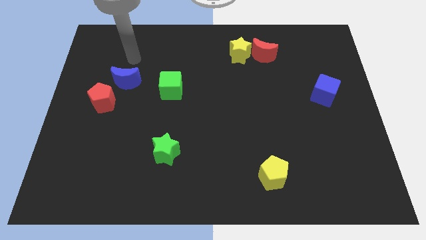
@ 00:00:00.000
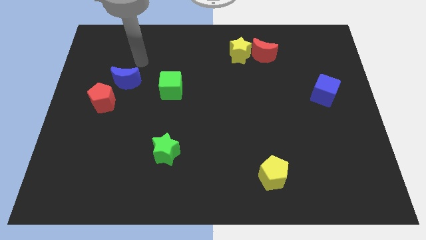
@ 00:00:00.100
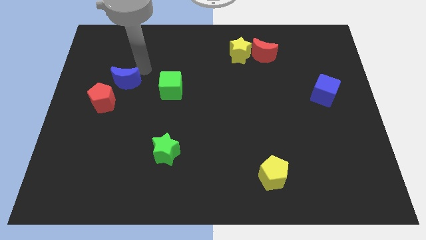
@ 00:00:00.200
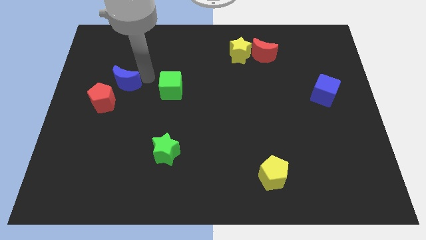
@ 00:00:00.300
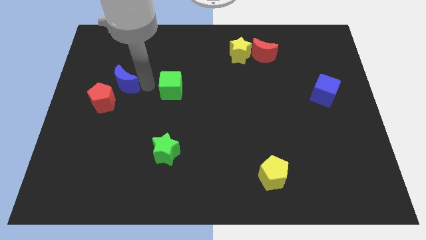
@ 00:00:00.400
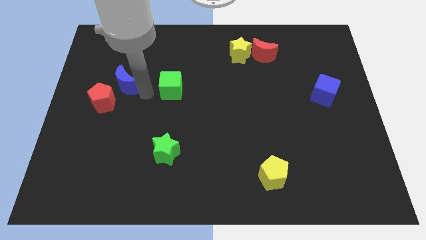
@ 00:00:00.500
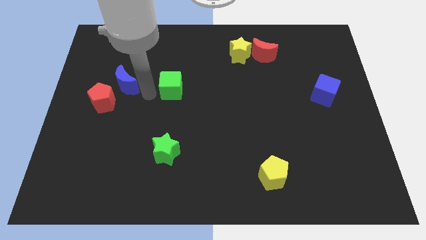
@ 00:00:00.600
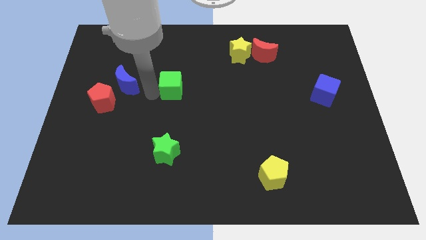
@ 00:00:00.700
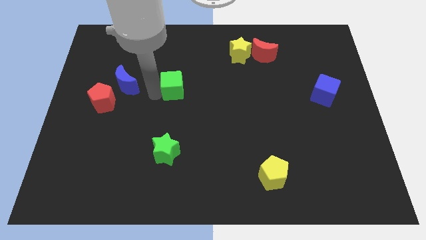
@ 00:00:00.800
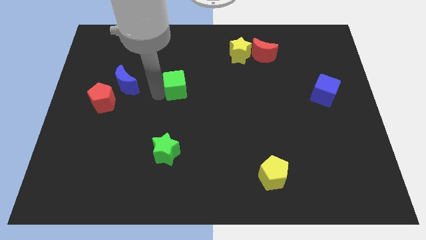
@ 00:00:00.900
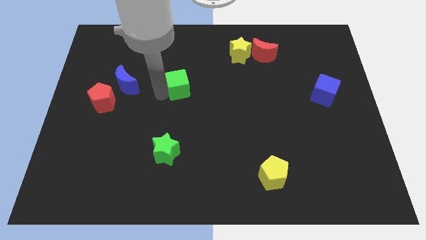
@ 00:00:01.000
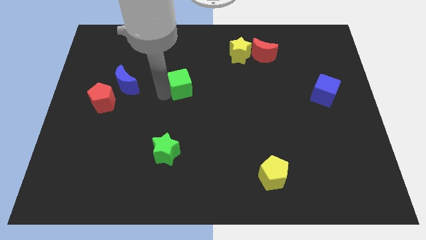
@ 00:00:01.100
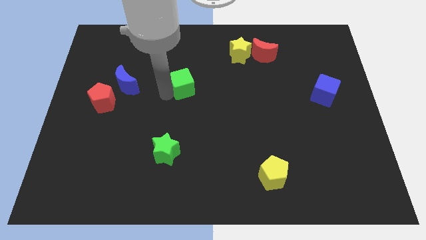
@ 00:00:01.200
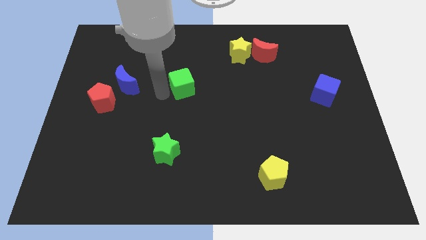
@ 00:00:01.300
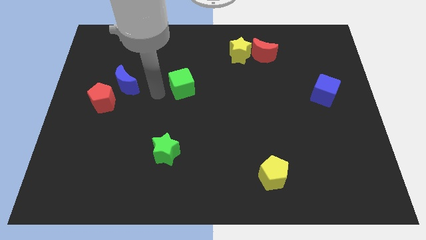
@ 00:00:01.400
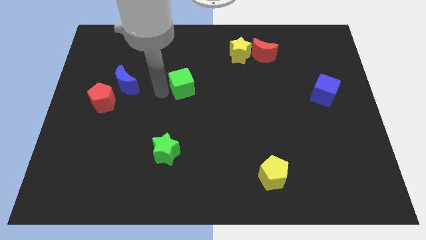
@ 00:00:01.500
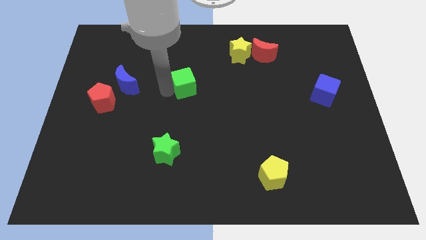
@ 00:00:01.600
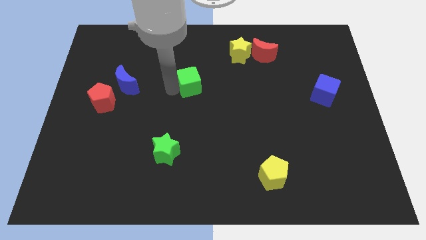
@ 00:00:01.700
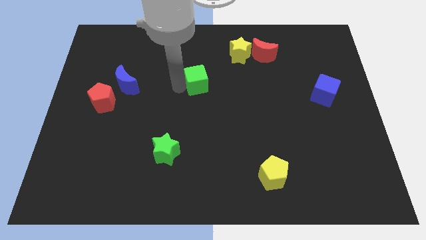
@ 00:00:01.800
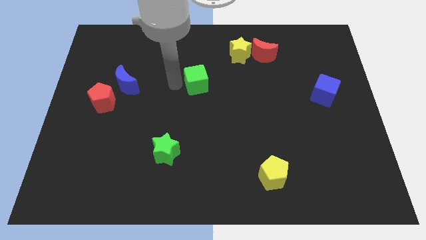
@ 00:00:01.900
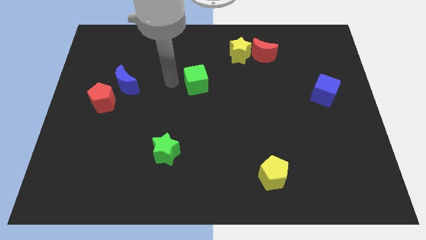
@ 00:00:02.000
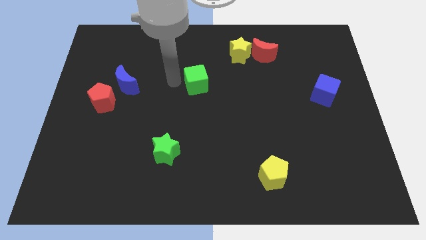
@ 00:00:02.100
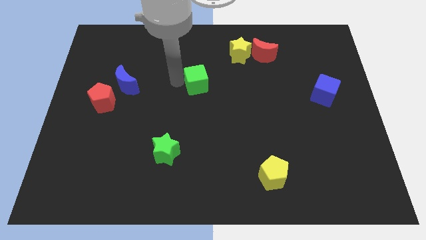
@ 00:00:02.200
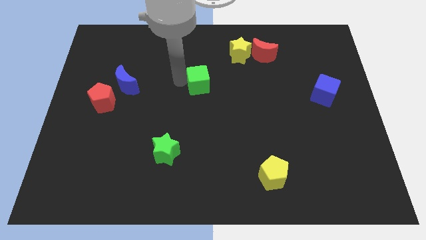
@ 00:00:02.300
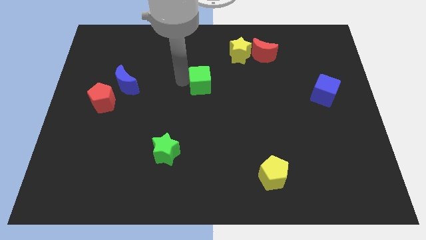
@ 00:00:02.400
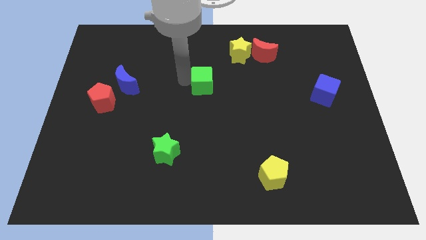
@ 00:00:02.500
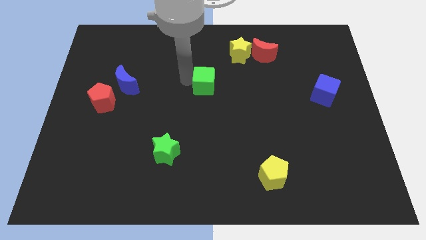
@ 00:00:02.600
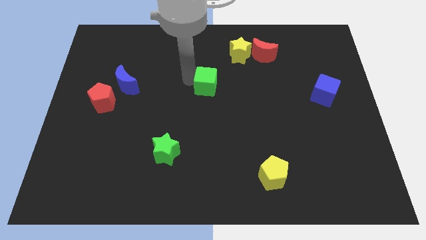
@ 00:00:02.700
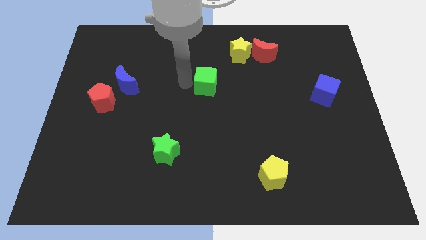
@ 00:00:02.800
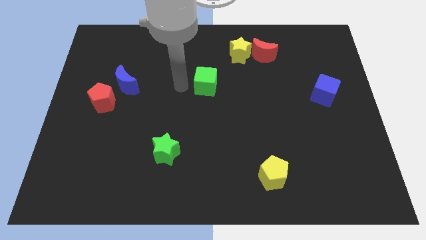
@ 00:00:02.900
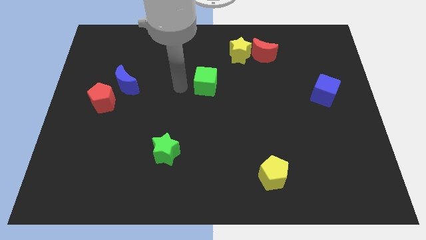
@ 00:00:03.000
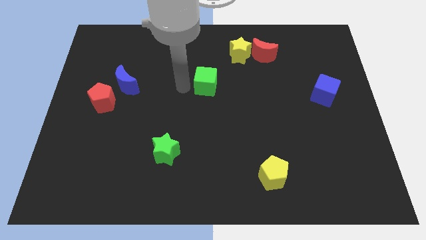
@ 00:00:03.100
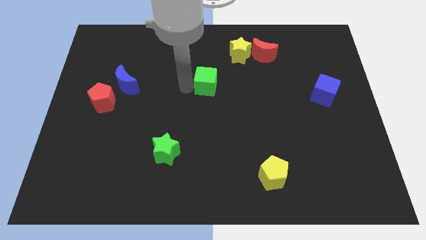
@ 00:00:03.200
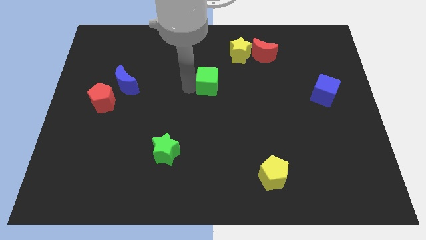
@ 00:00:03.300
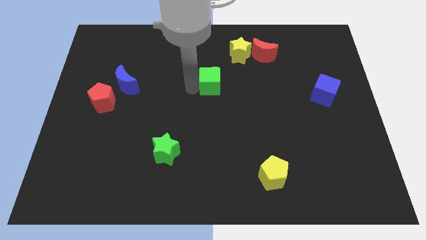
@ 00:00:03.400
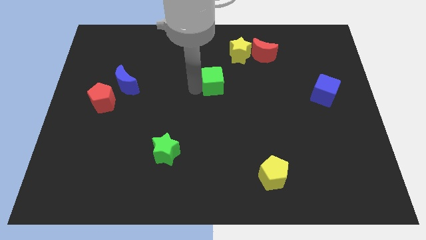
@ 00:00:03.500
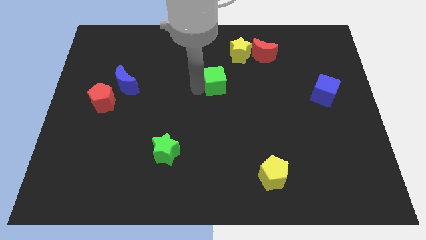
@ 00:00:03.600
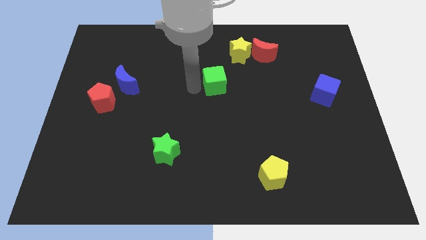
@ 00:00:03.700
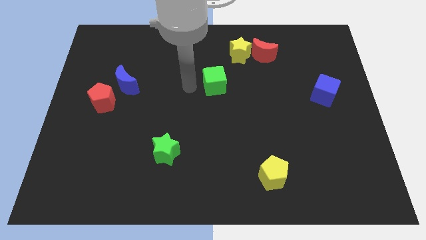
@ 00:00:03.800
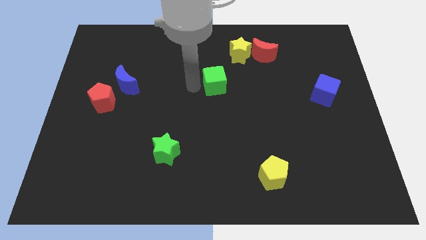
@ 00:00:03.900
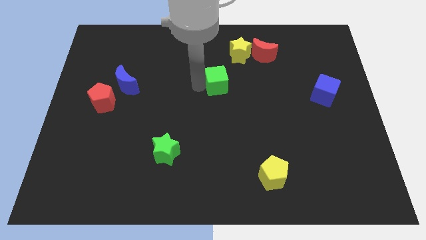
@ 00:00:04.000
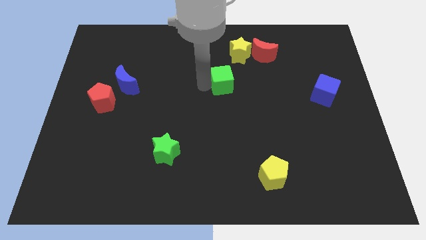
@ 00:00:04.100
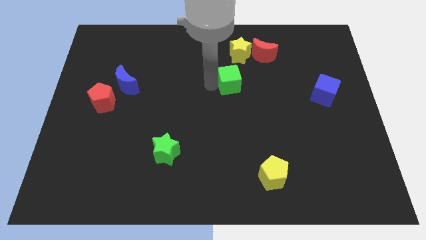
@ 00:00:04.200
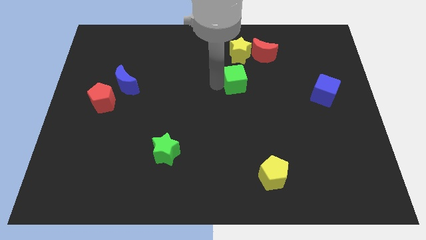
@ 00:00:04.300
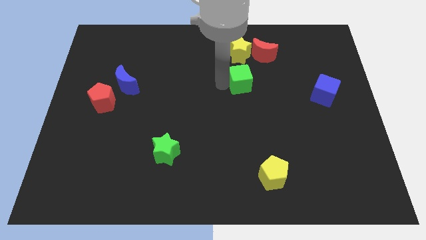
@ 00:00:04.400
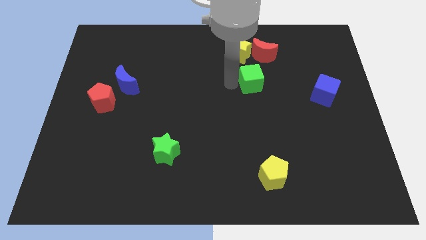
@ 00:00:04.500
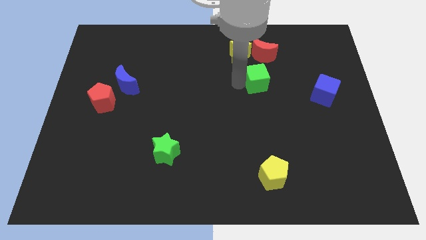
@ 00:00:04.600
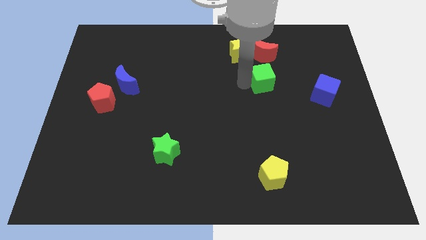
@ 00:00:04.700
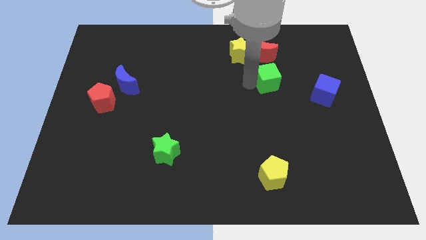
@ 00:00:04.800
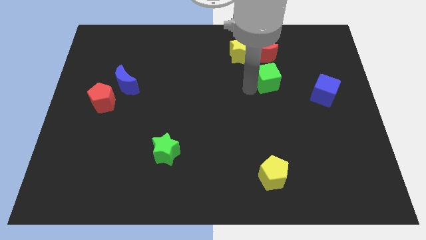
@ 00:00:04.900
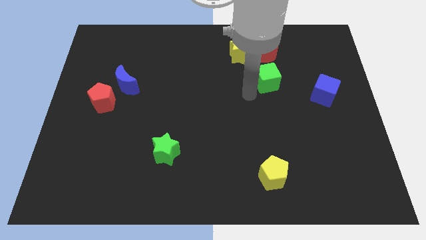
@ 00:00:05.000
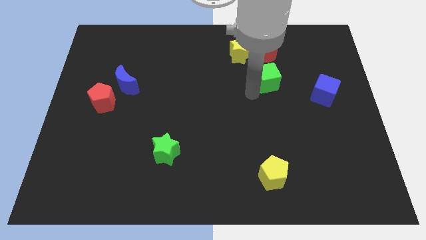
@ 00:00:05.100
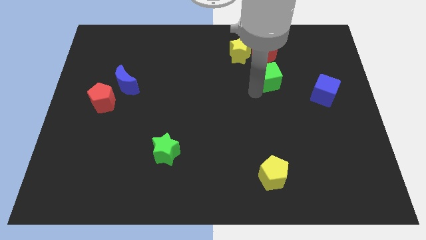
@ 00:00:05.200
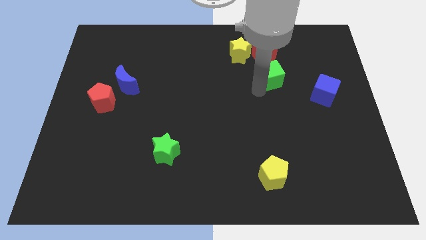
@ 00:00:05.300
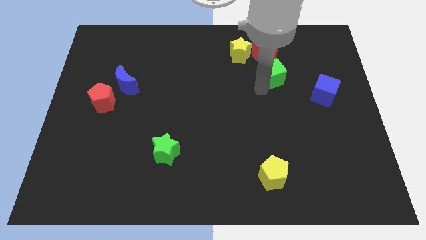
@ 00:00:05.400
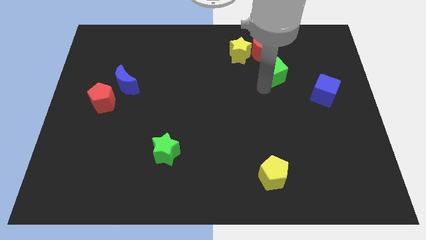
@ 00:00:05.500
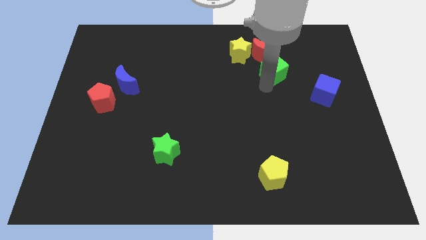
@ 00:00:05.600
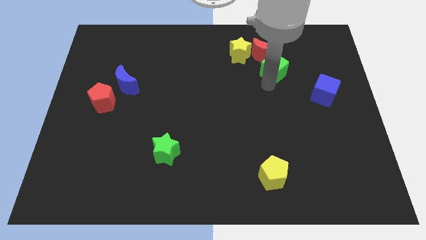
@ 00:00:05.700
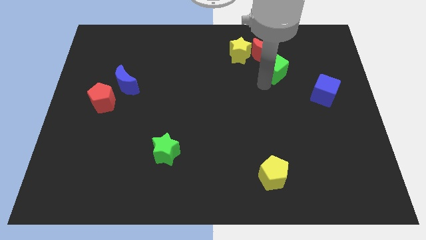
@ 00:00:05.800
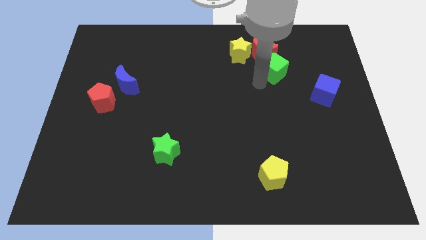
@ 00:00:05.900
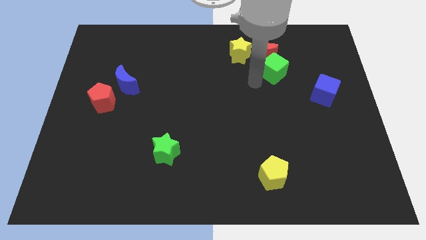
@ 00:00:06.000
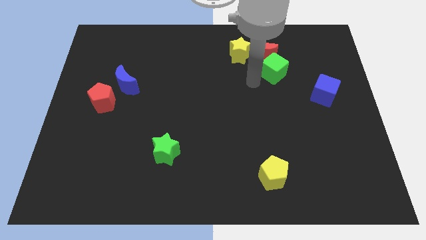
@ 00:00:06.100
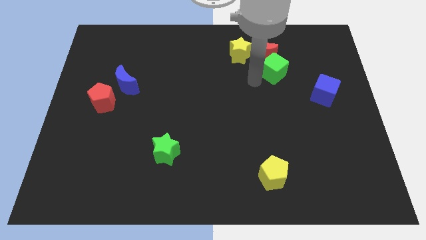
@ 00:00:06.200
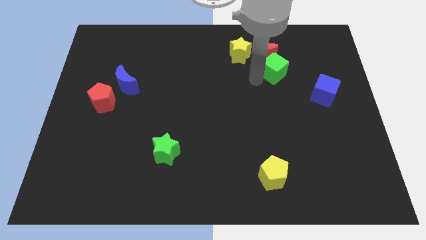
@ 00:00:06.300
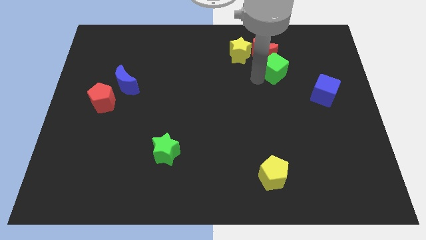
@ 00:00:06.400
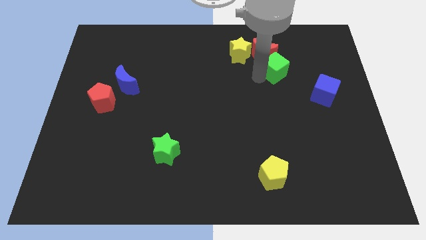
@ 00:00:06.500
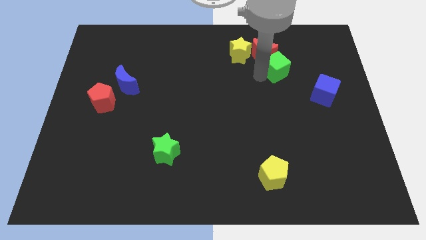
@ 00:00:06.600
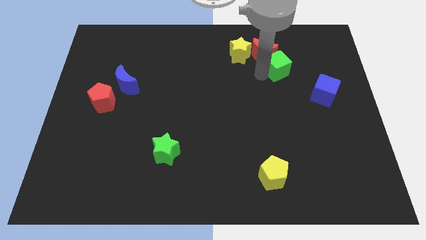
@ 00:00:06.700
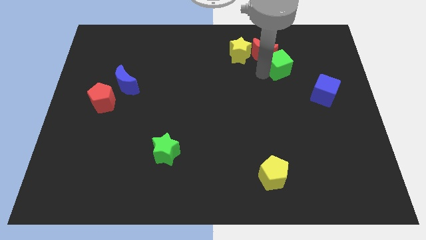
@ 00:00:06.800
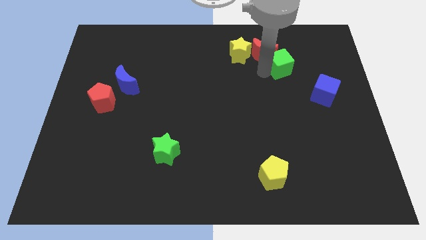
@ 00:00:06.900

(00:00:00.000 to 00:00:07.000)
slide the green cube just right of the red moon
